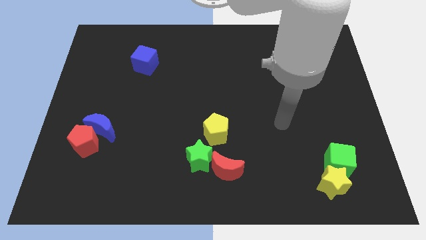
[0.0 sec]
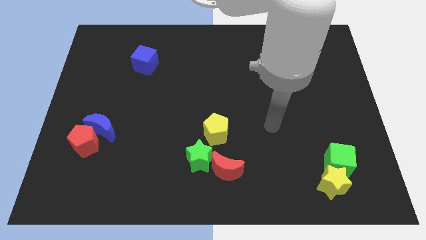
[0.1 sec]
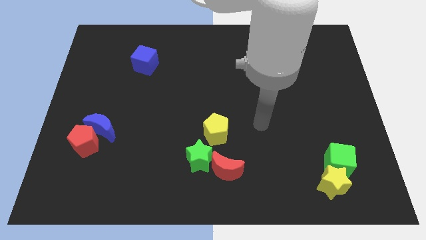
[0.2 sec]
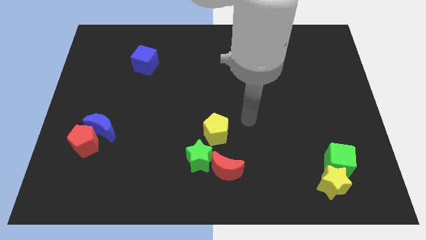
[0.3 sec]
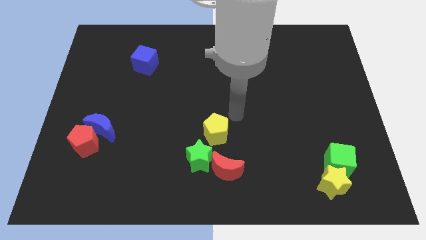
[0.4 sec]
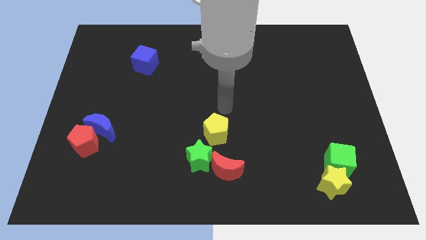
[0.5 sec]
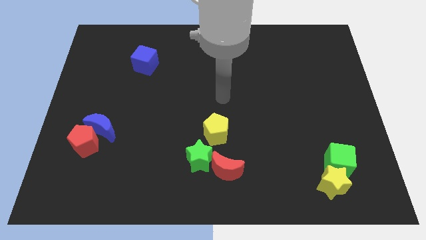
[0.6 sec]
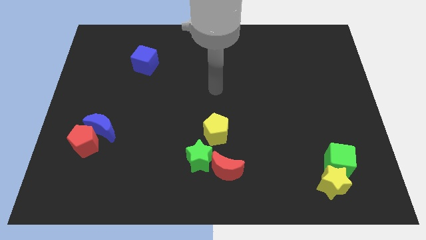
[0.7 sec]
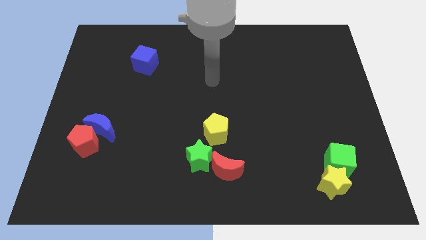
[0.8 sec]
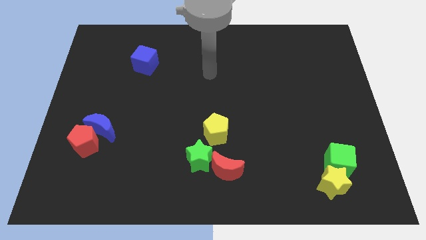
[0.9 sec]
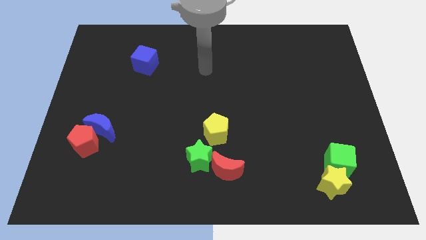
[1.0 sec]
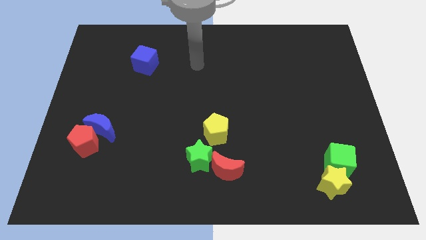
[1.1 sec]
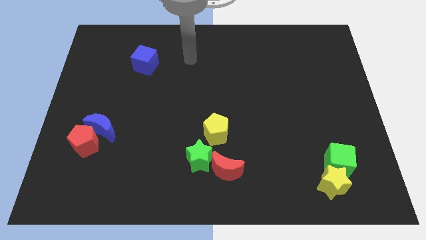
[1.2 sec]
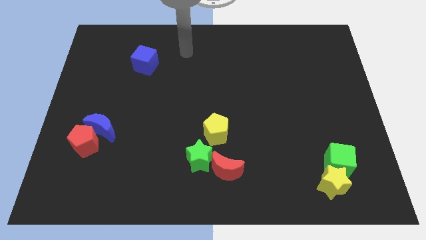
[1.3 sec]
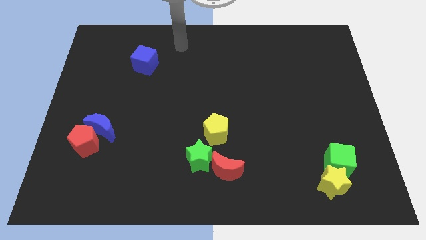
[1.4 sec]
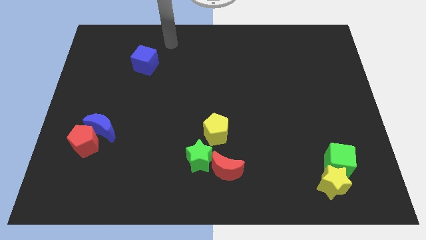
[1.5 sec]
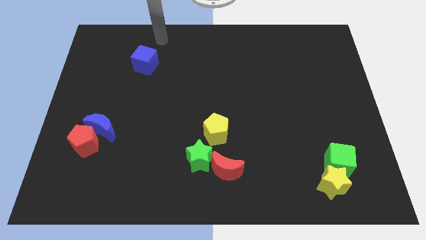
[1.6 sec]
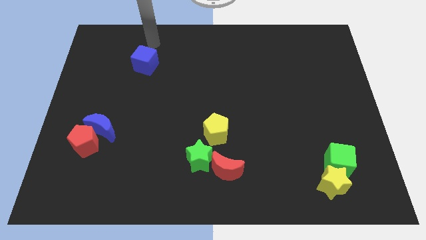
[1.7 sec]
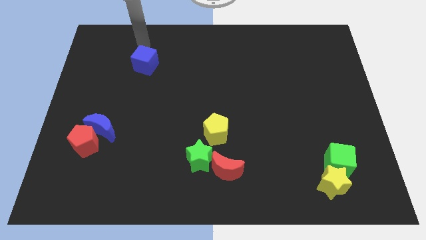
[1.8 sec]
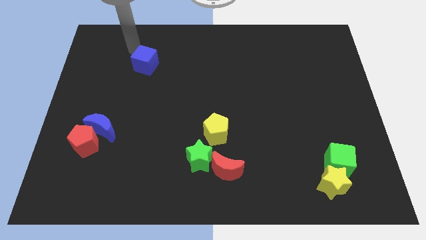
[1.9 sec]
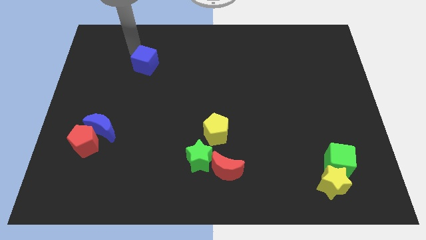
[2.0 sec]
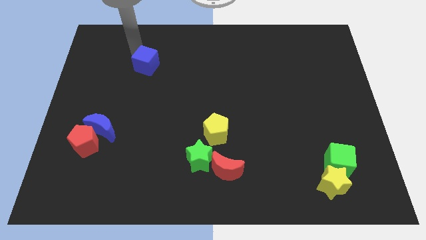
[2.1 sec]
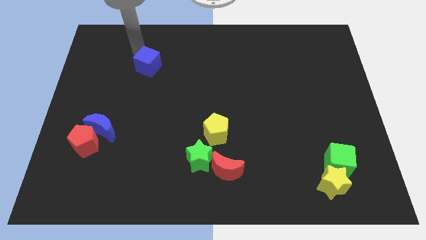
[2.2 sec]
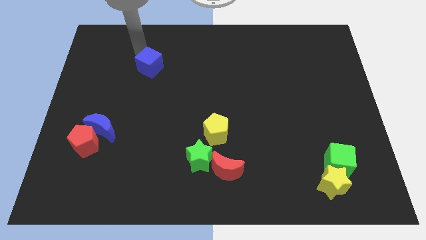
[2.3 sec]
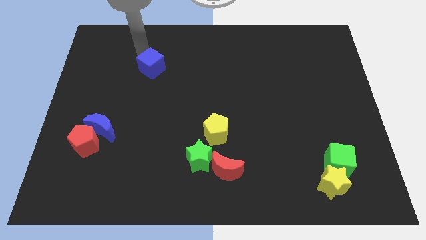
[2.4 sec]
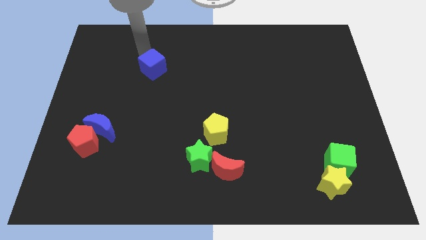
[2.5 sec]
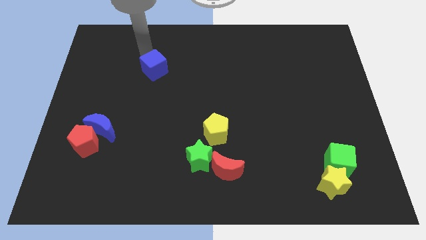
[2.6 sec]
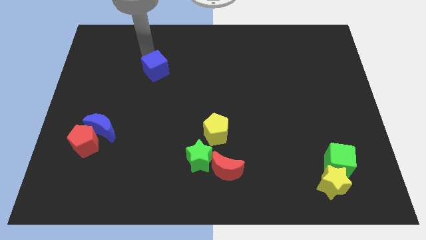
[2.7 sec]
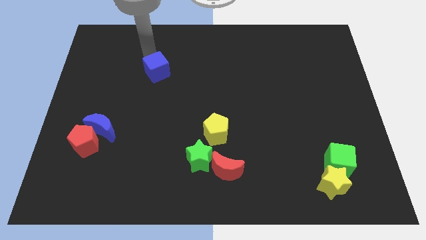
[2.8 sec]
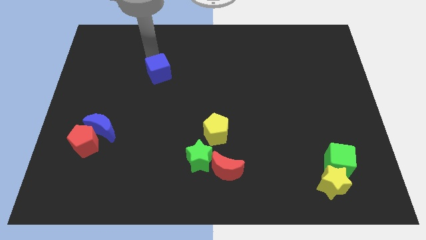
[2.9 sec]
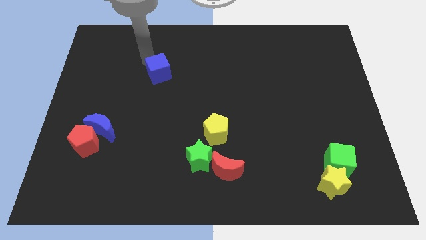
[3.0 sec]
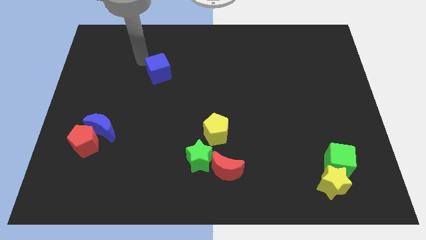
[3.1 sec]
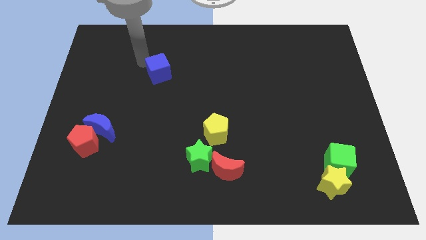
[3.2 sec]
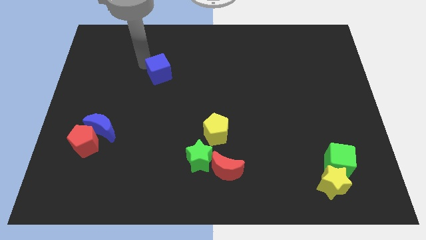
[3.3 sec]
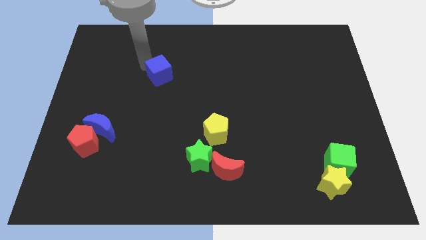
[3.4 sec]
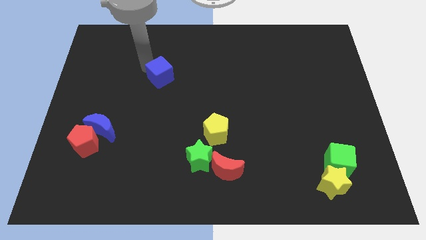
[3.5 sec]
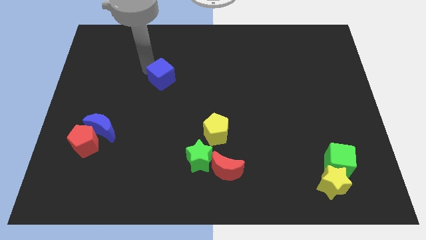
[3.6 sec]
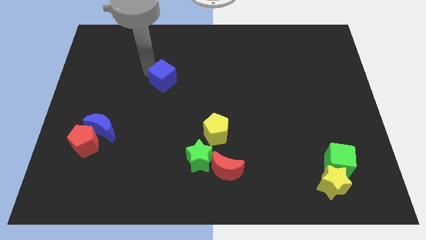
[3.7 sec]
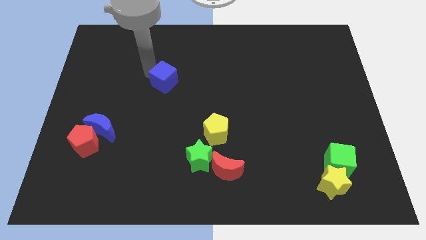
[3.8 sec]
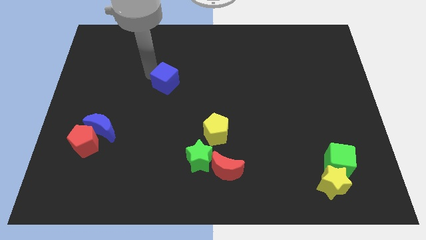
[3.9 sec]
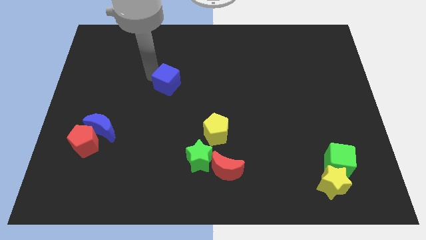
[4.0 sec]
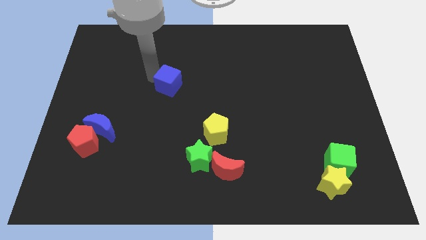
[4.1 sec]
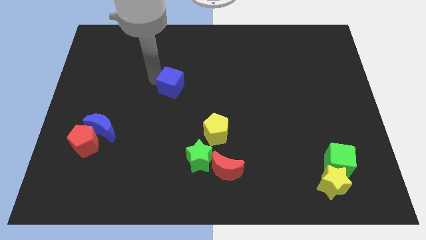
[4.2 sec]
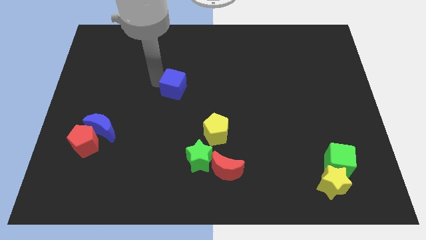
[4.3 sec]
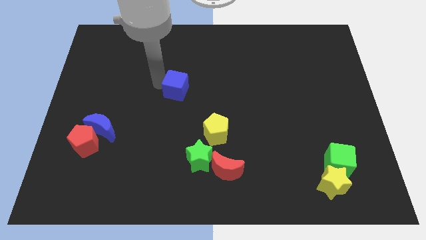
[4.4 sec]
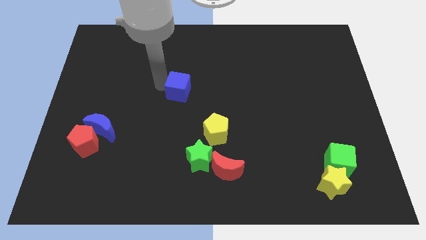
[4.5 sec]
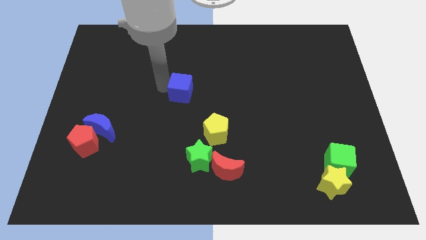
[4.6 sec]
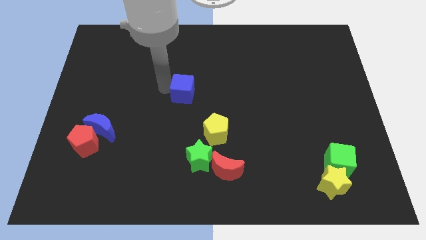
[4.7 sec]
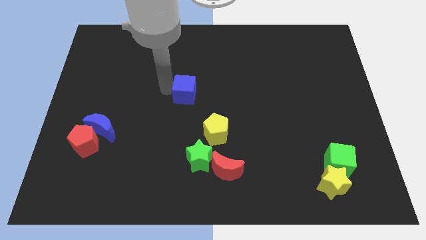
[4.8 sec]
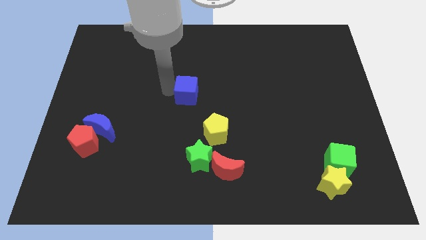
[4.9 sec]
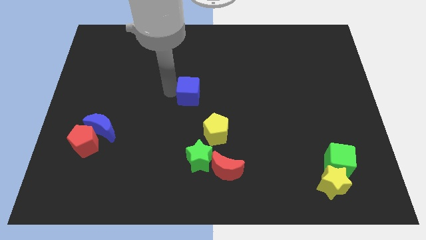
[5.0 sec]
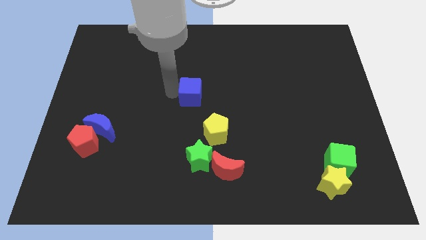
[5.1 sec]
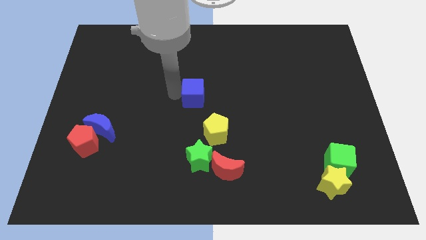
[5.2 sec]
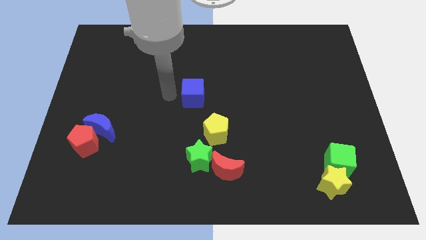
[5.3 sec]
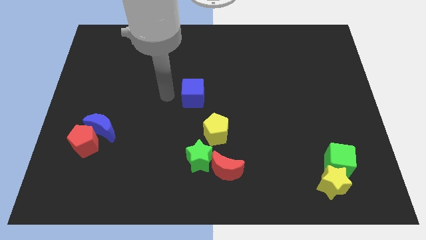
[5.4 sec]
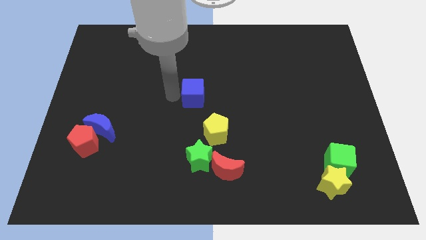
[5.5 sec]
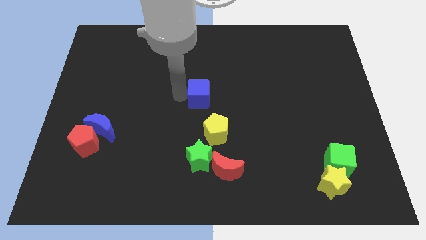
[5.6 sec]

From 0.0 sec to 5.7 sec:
put the blue cube to the top side of the yellow pentagon

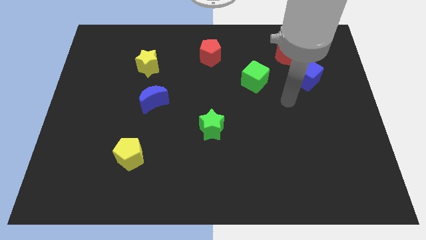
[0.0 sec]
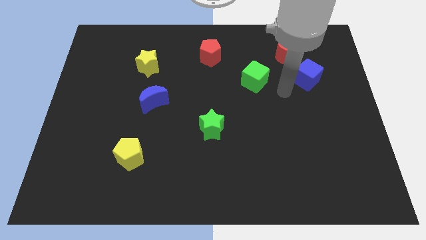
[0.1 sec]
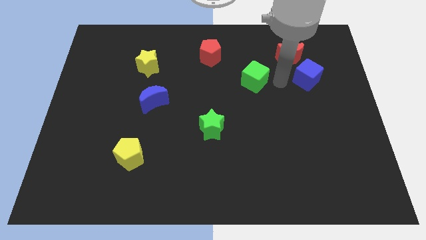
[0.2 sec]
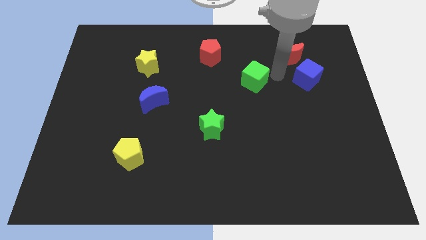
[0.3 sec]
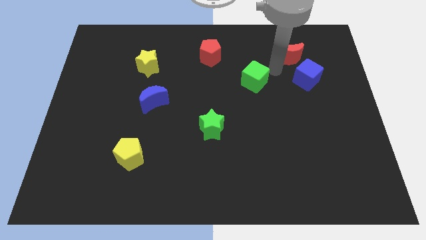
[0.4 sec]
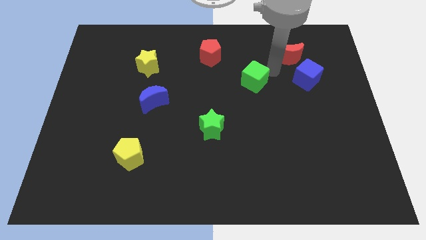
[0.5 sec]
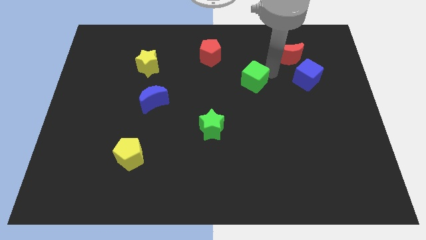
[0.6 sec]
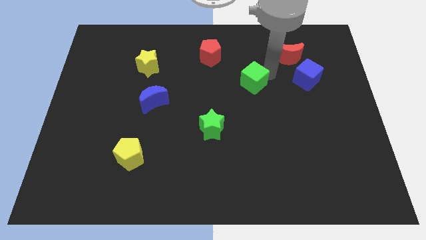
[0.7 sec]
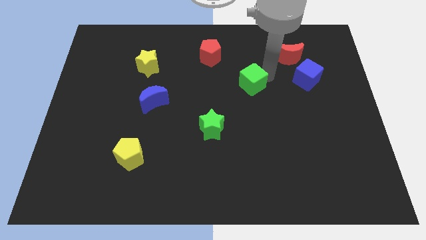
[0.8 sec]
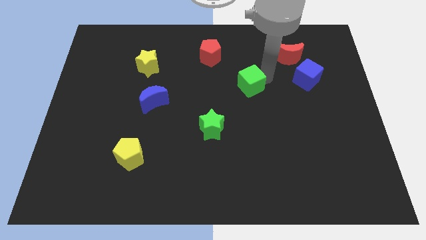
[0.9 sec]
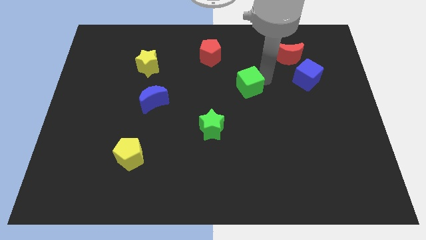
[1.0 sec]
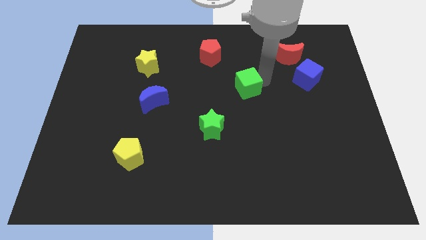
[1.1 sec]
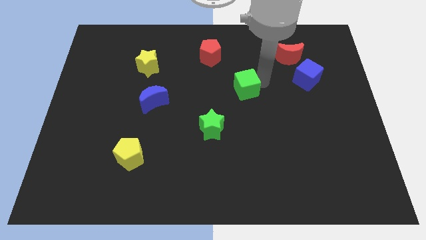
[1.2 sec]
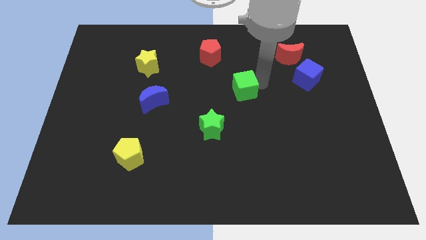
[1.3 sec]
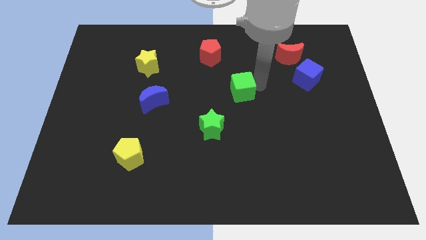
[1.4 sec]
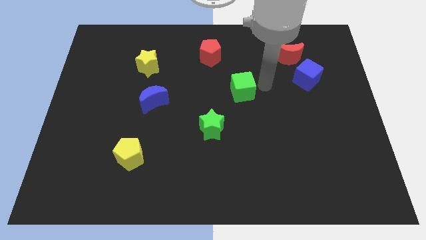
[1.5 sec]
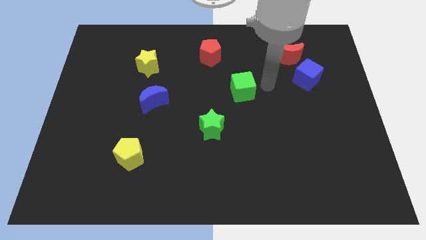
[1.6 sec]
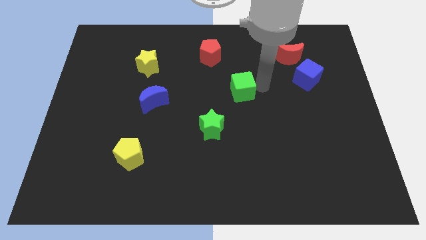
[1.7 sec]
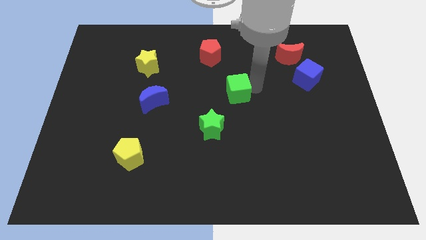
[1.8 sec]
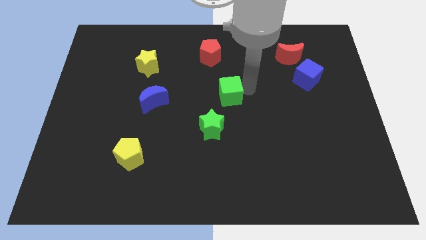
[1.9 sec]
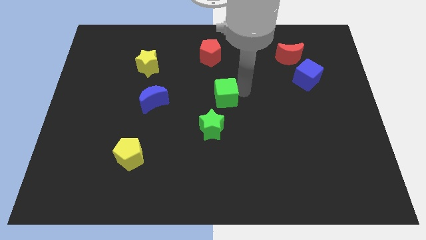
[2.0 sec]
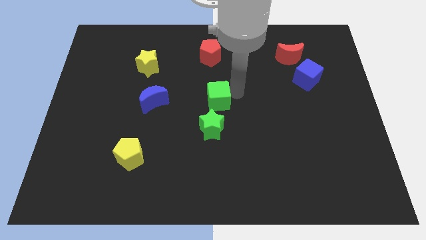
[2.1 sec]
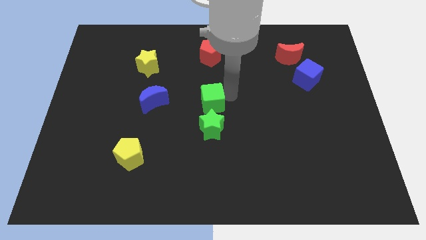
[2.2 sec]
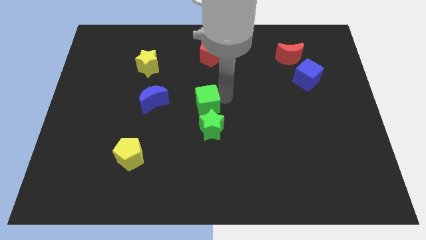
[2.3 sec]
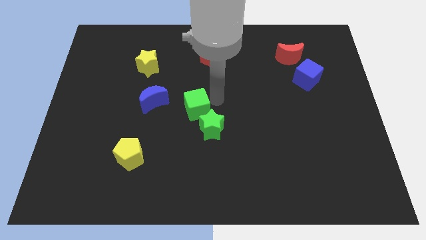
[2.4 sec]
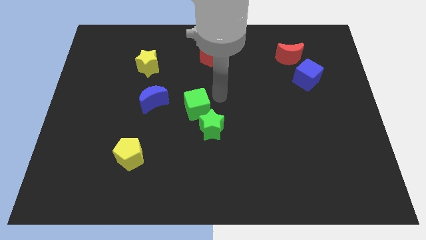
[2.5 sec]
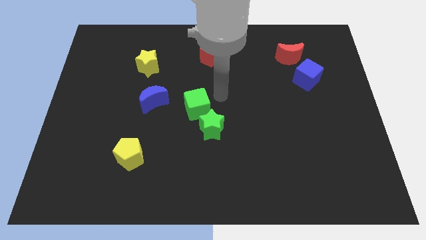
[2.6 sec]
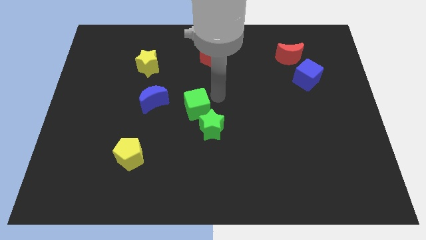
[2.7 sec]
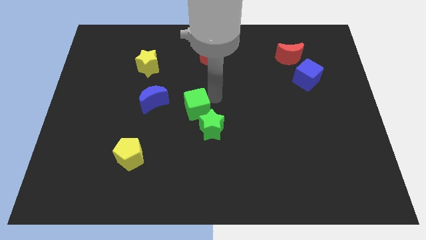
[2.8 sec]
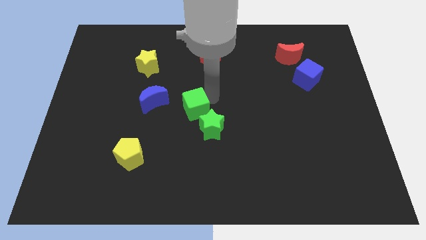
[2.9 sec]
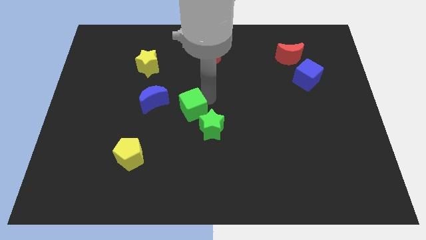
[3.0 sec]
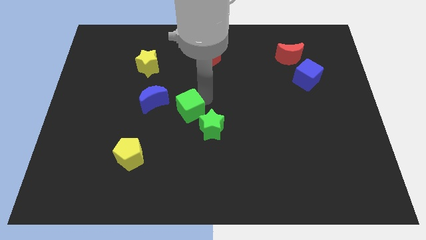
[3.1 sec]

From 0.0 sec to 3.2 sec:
slide the green cube to the bottom right of the blue moon
